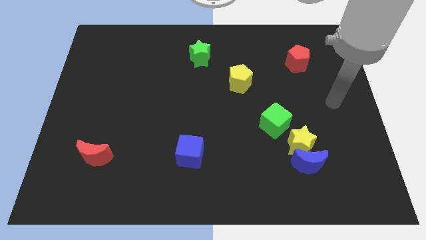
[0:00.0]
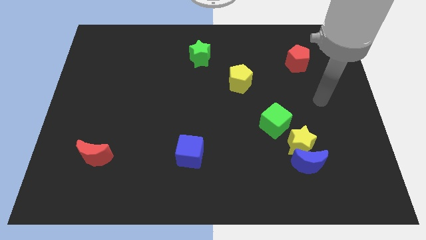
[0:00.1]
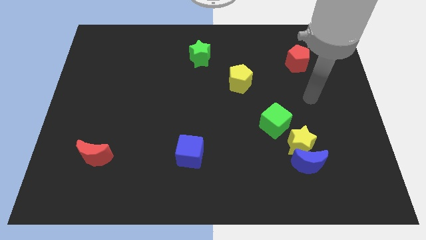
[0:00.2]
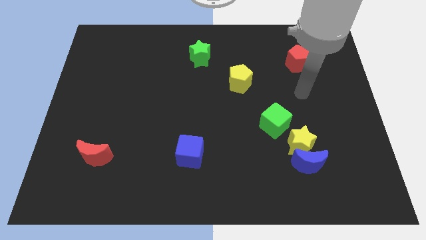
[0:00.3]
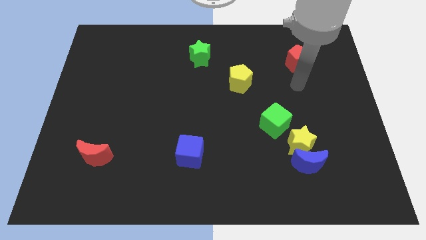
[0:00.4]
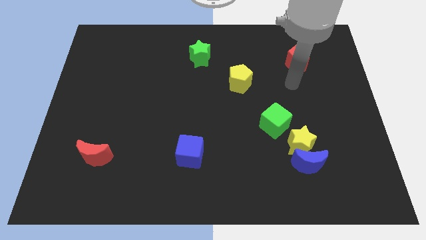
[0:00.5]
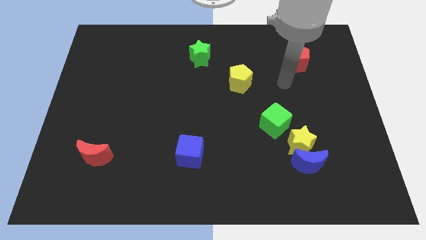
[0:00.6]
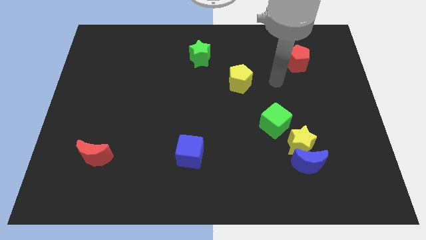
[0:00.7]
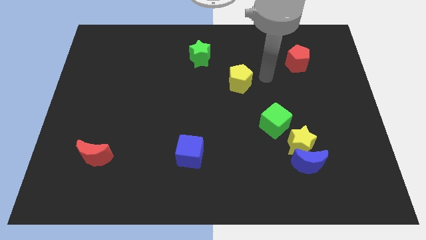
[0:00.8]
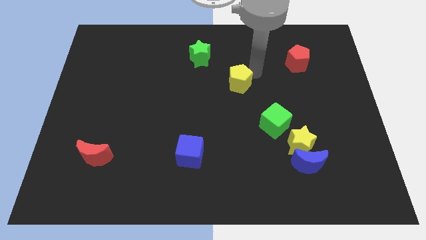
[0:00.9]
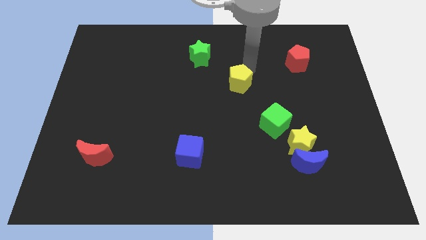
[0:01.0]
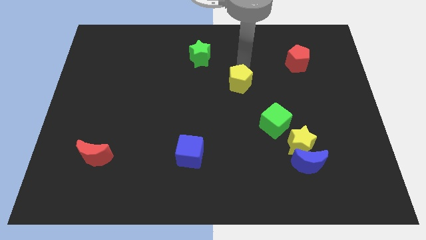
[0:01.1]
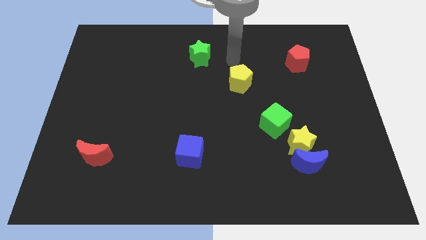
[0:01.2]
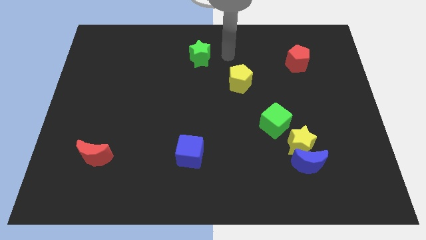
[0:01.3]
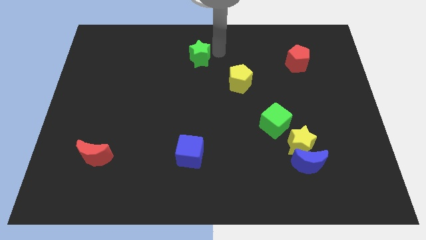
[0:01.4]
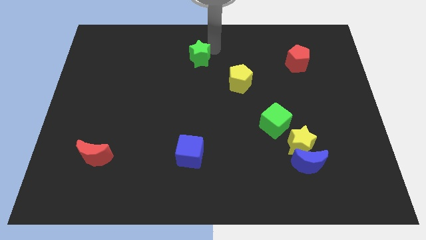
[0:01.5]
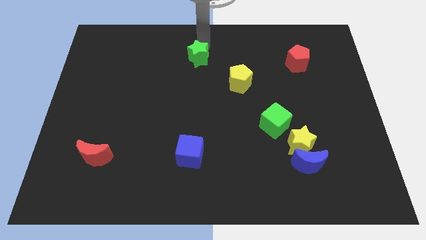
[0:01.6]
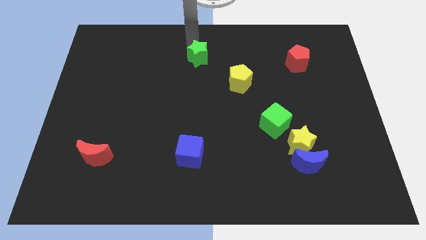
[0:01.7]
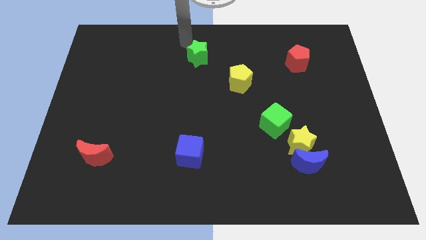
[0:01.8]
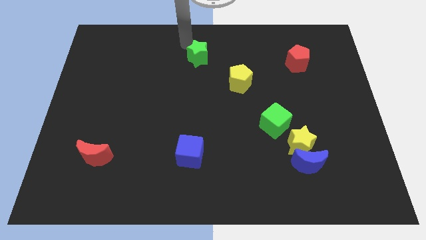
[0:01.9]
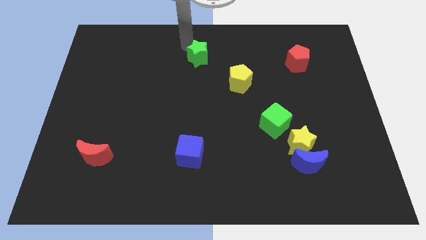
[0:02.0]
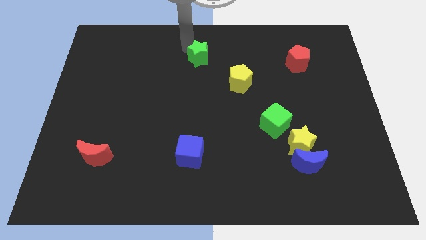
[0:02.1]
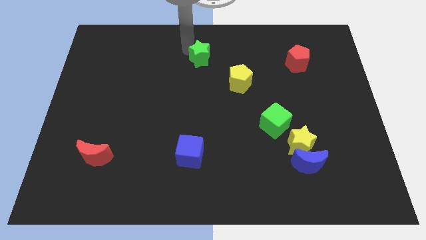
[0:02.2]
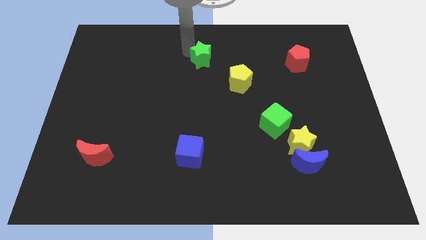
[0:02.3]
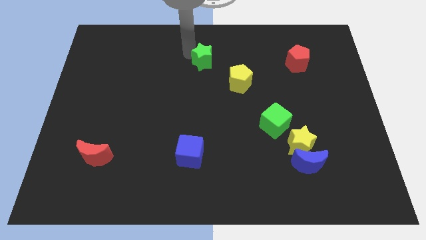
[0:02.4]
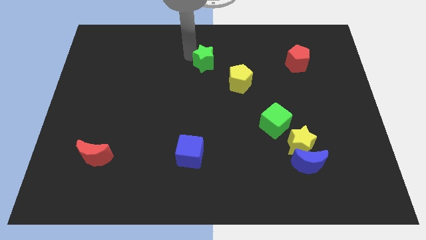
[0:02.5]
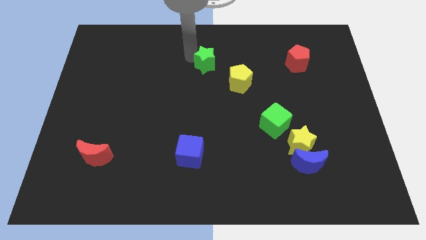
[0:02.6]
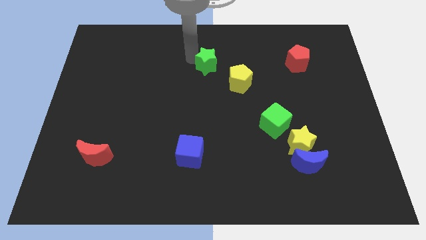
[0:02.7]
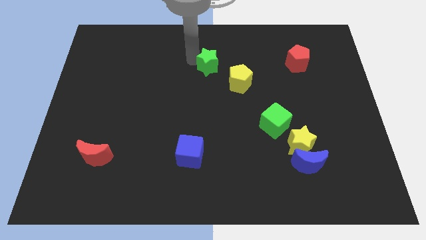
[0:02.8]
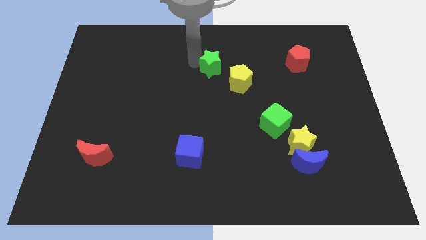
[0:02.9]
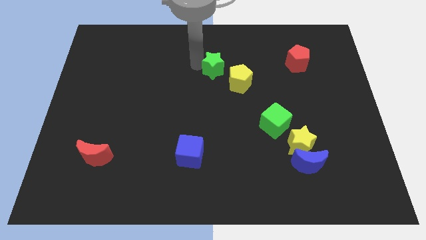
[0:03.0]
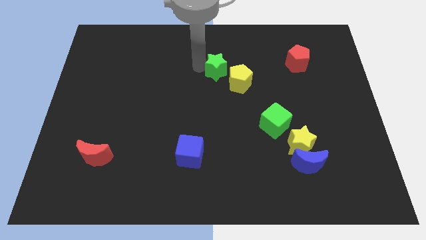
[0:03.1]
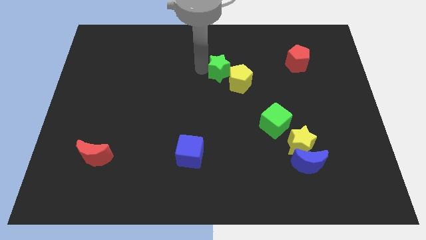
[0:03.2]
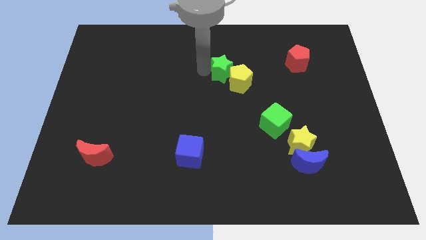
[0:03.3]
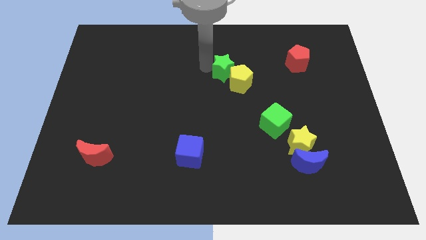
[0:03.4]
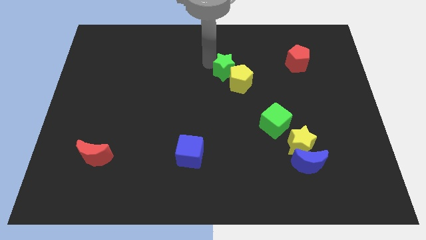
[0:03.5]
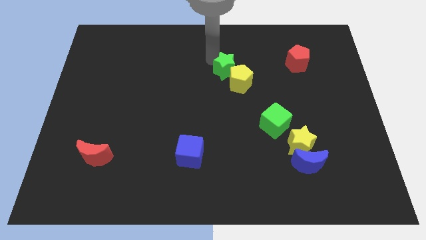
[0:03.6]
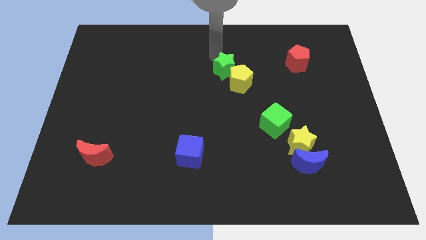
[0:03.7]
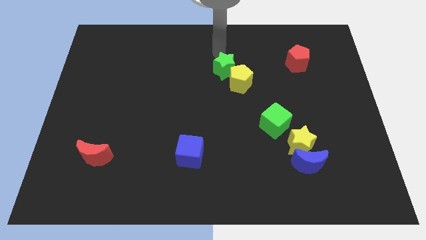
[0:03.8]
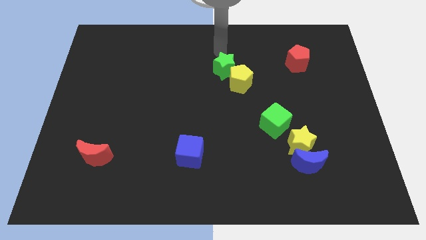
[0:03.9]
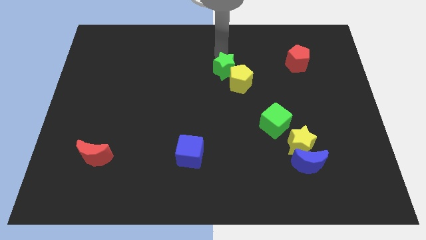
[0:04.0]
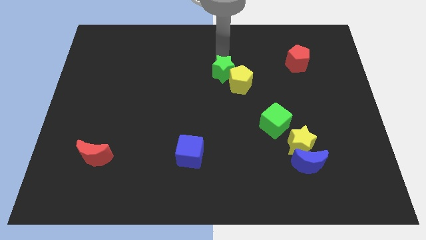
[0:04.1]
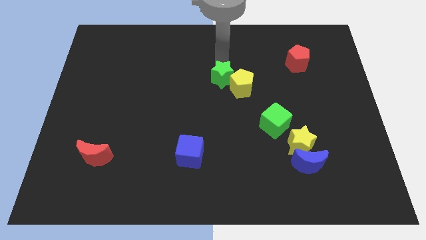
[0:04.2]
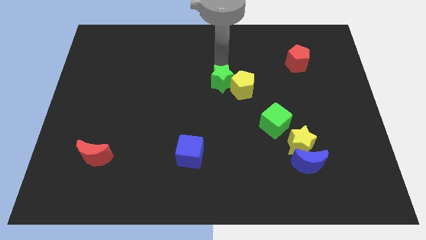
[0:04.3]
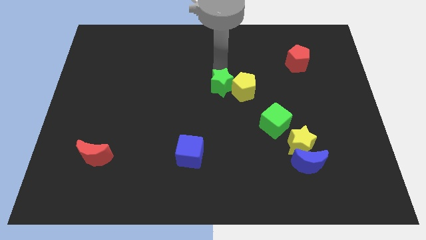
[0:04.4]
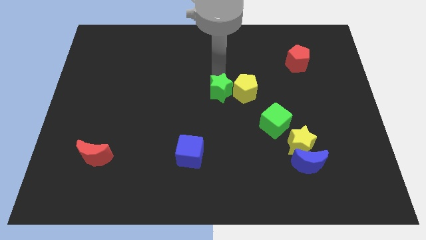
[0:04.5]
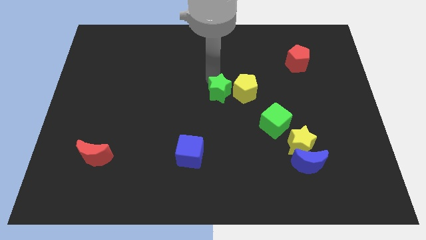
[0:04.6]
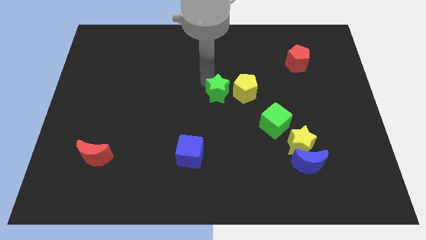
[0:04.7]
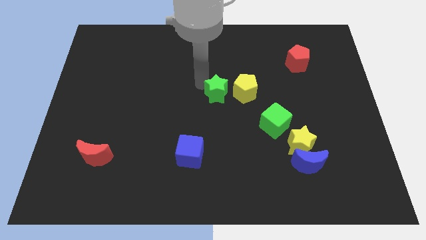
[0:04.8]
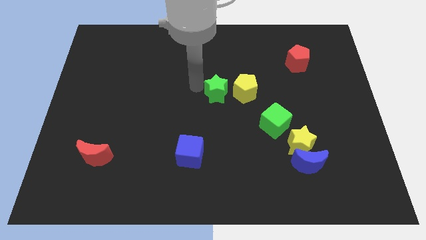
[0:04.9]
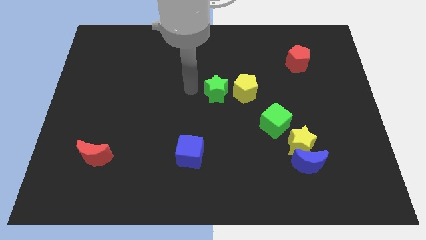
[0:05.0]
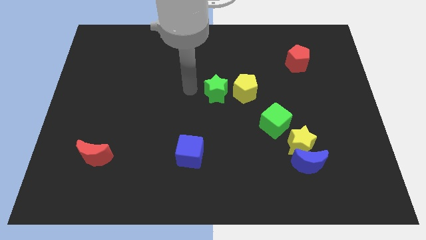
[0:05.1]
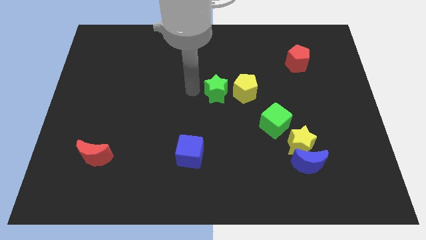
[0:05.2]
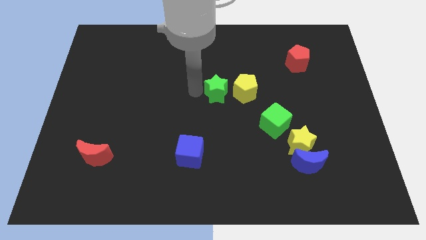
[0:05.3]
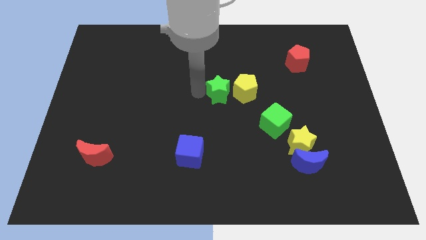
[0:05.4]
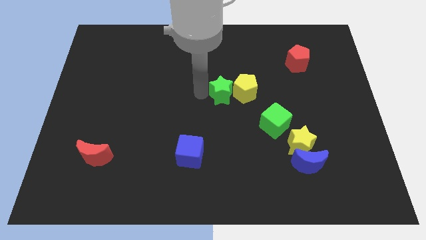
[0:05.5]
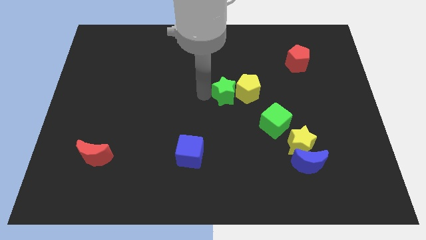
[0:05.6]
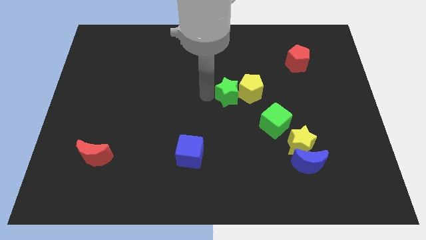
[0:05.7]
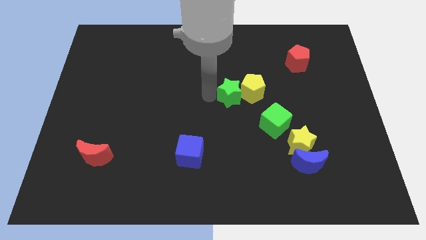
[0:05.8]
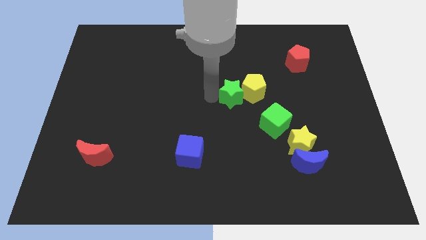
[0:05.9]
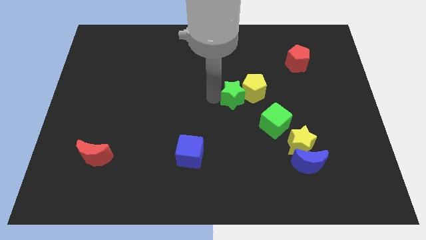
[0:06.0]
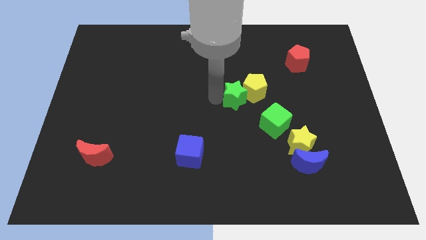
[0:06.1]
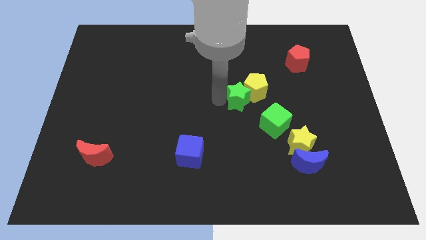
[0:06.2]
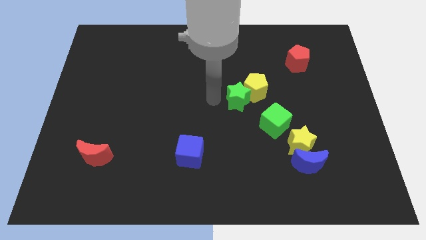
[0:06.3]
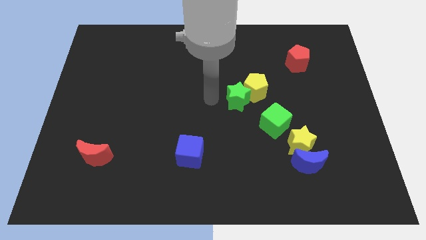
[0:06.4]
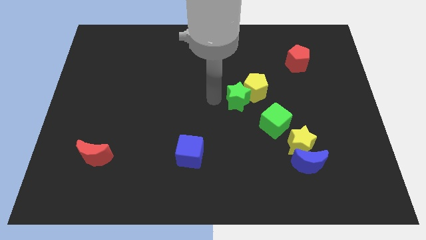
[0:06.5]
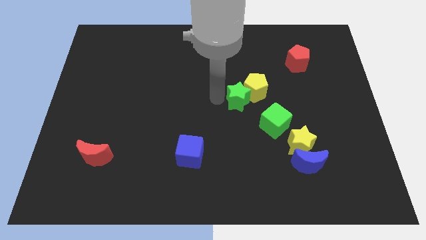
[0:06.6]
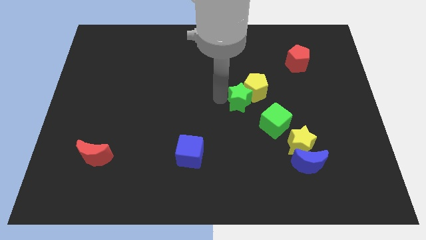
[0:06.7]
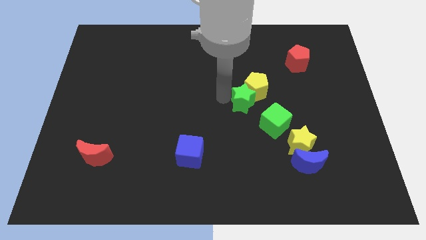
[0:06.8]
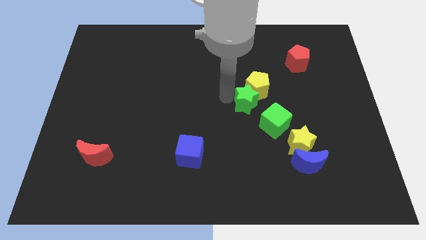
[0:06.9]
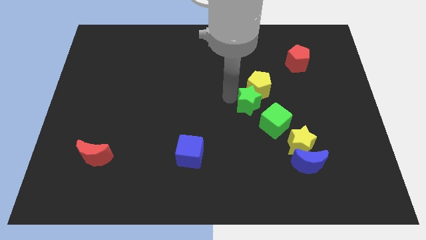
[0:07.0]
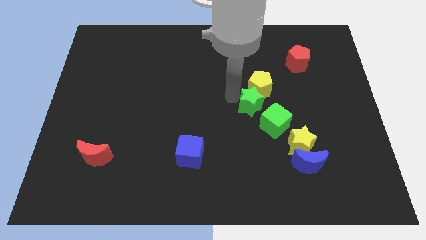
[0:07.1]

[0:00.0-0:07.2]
slide the green star downwards and then right

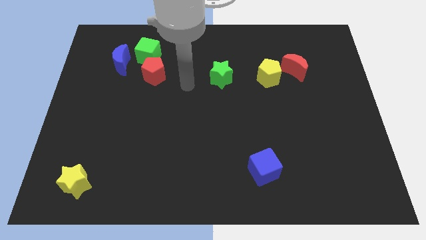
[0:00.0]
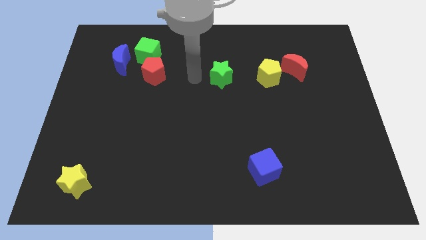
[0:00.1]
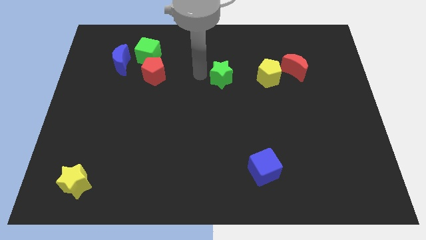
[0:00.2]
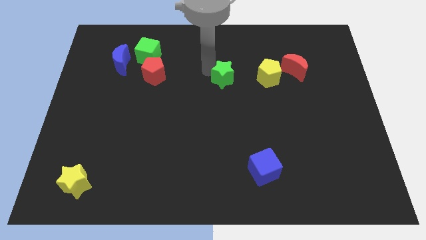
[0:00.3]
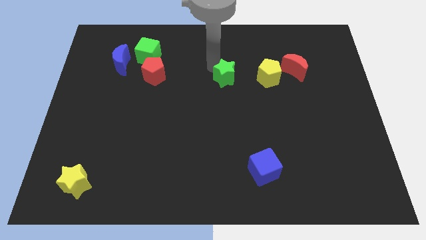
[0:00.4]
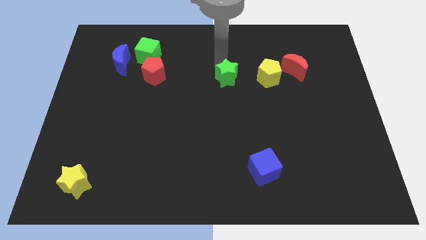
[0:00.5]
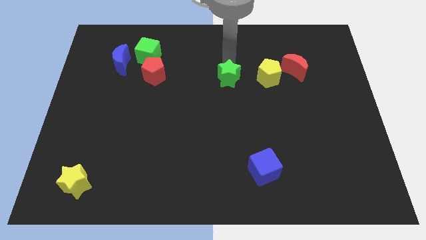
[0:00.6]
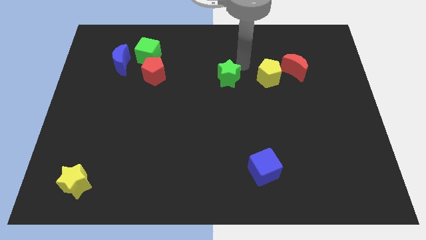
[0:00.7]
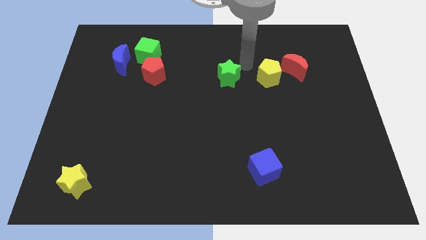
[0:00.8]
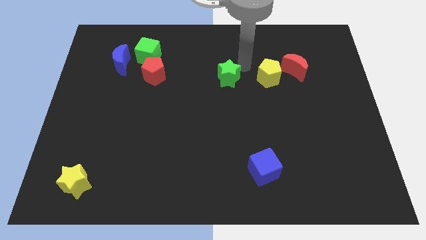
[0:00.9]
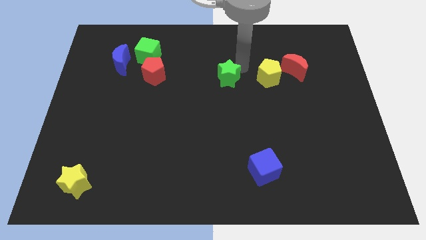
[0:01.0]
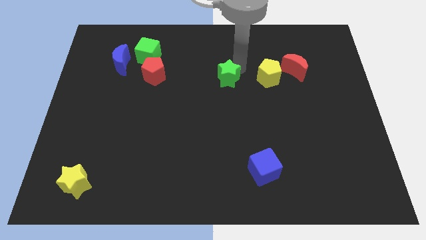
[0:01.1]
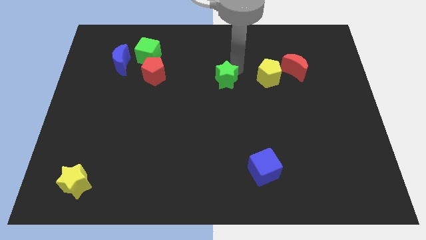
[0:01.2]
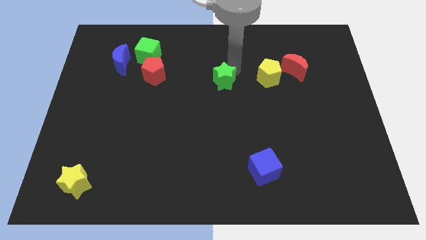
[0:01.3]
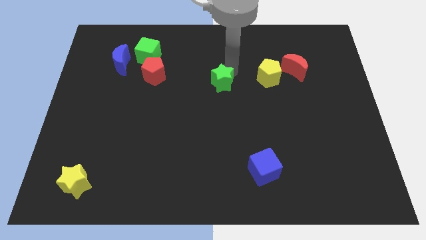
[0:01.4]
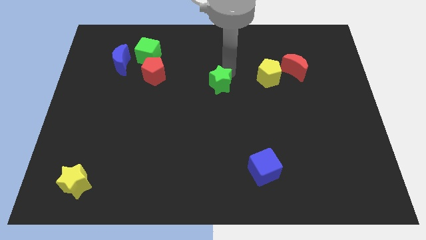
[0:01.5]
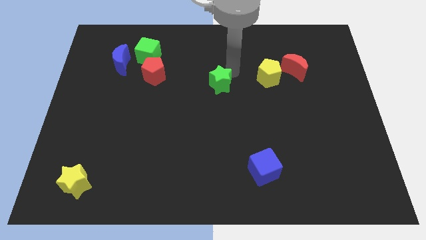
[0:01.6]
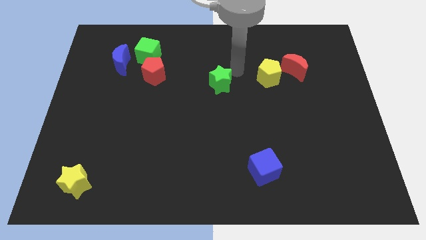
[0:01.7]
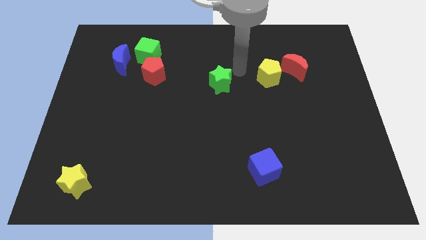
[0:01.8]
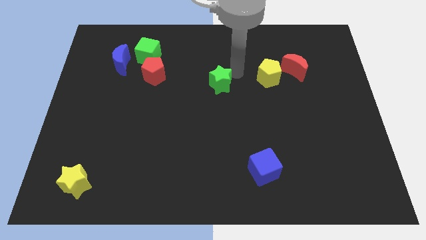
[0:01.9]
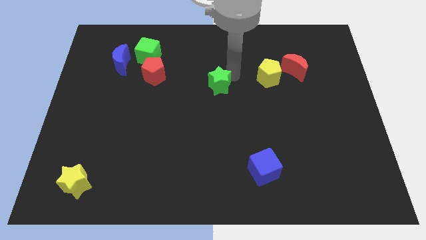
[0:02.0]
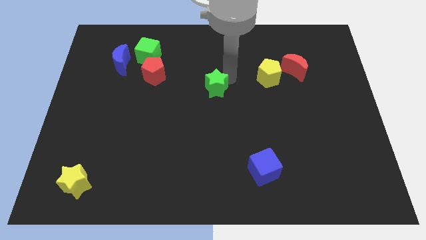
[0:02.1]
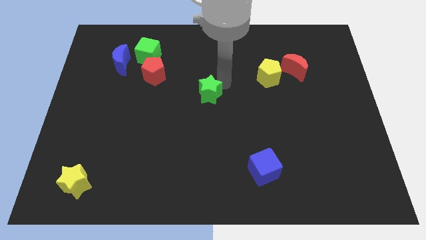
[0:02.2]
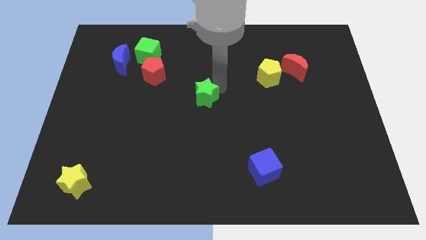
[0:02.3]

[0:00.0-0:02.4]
slide the green star diagonally down and left somewhat
